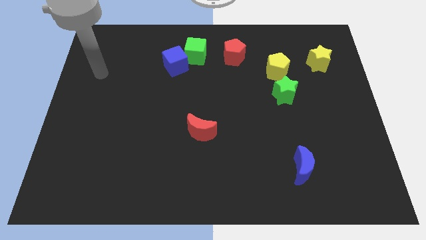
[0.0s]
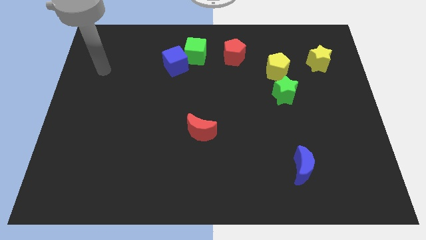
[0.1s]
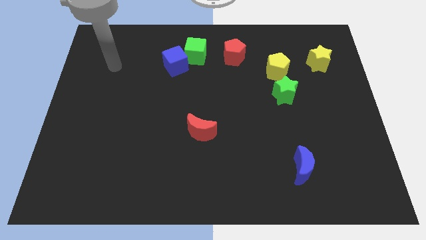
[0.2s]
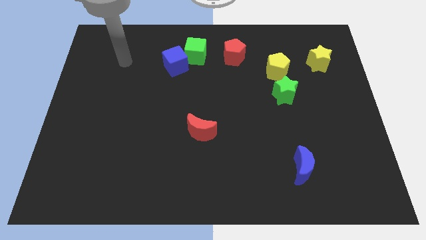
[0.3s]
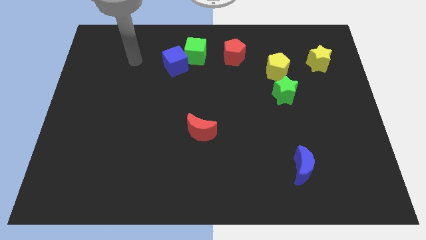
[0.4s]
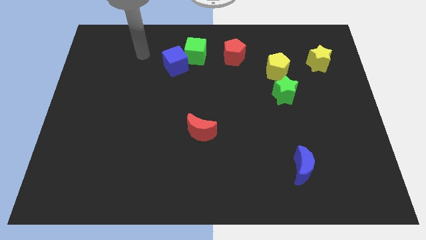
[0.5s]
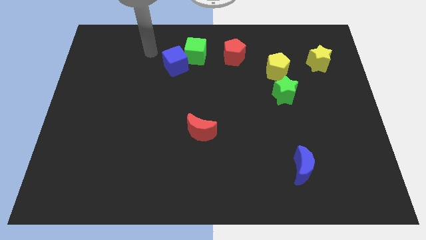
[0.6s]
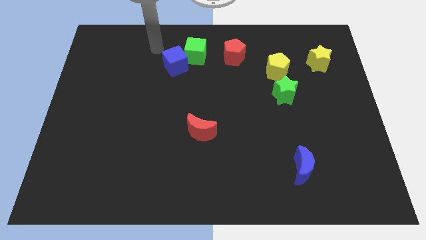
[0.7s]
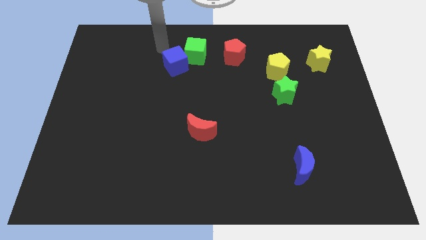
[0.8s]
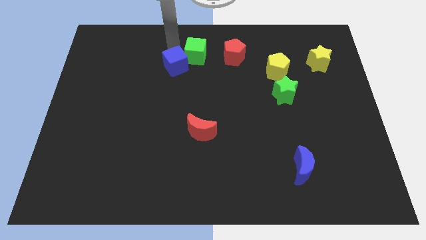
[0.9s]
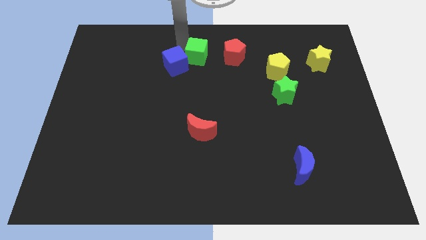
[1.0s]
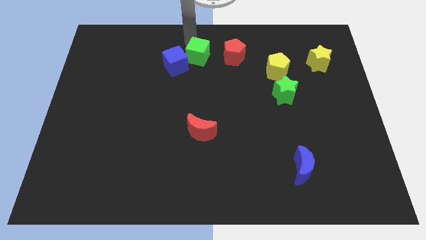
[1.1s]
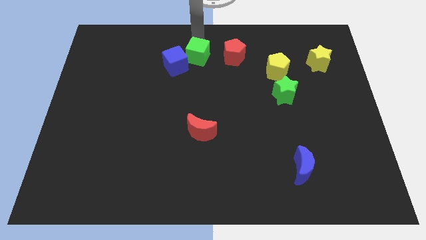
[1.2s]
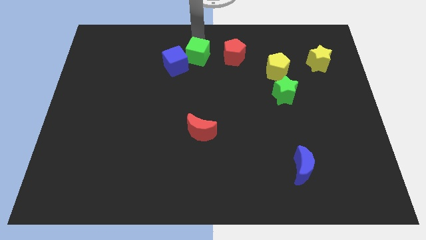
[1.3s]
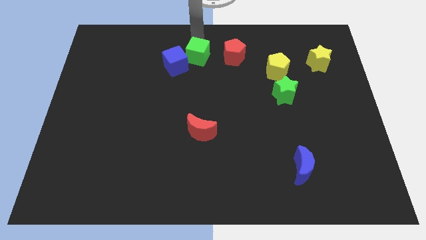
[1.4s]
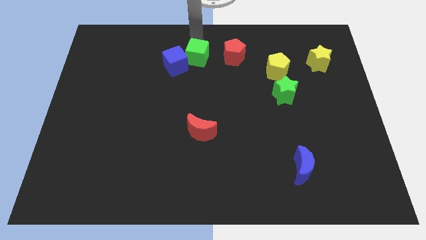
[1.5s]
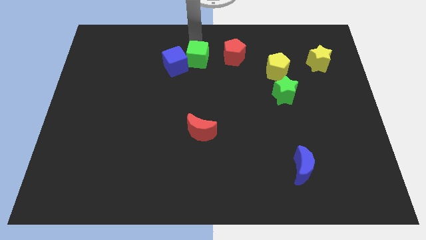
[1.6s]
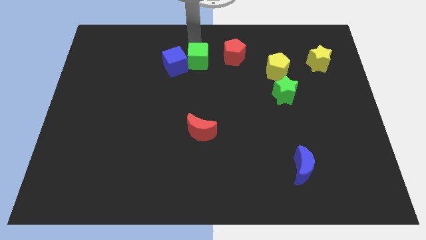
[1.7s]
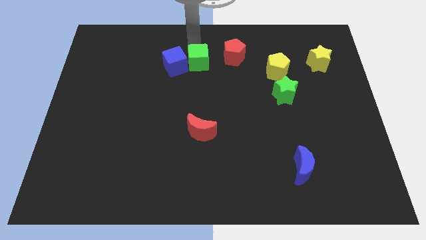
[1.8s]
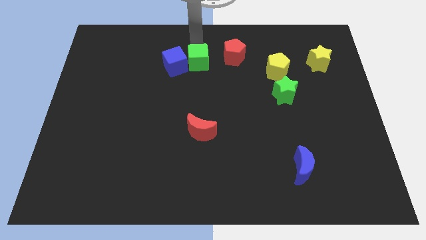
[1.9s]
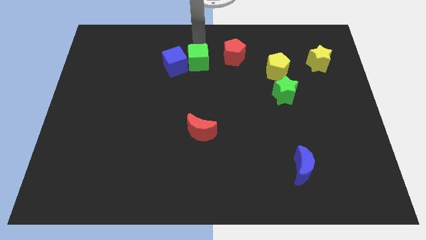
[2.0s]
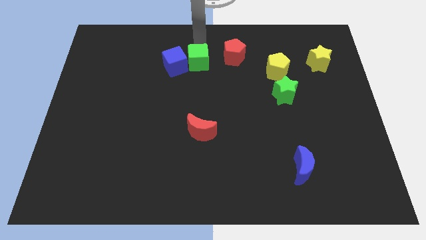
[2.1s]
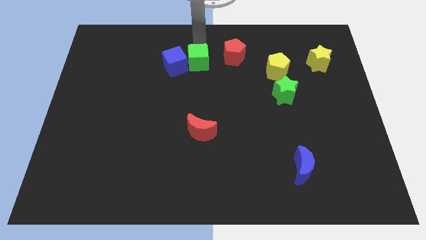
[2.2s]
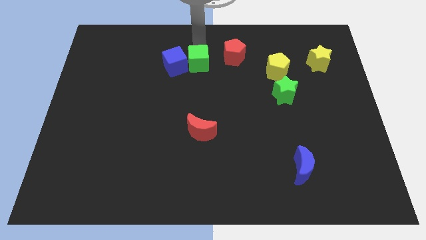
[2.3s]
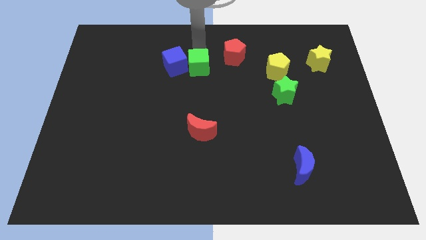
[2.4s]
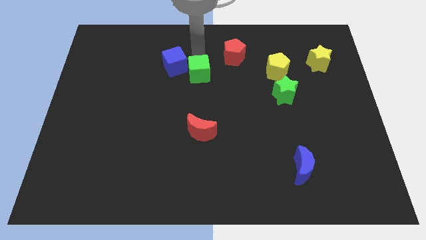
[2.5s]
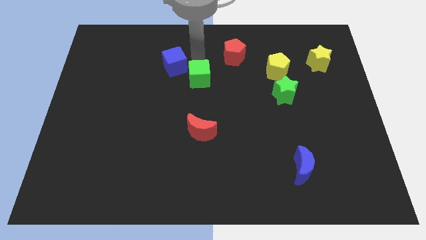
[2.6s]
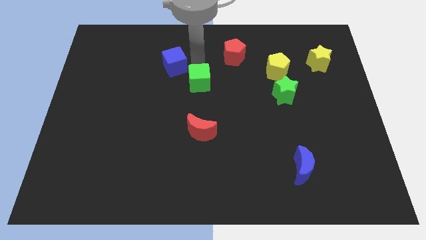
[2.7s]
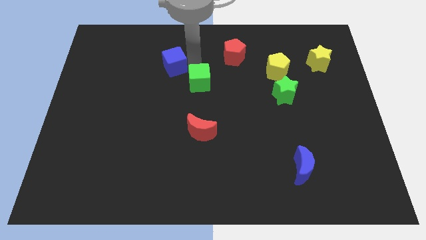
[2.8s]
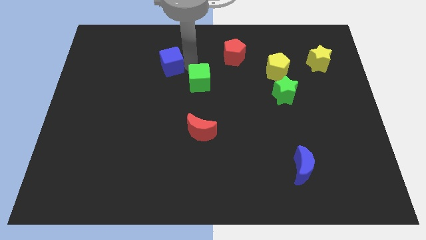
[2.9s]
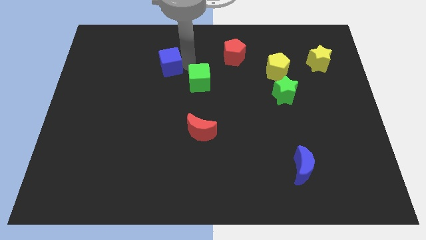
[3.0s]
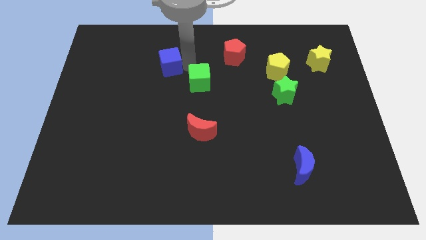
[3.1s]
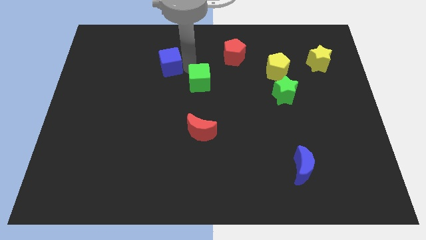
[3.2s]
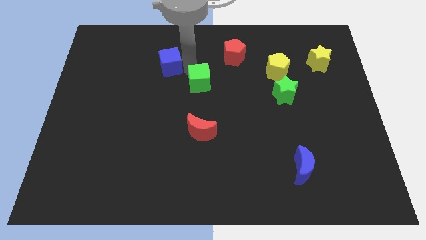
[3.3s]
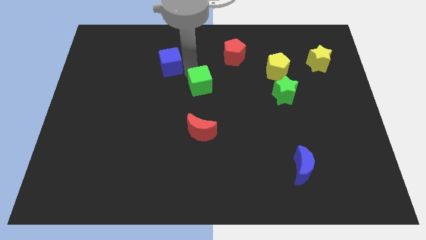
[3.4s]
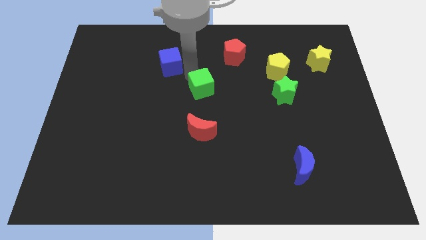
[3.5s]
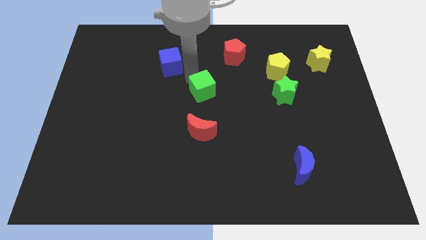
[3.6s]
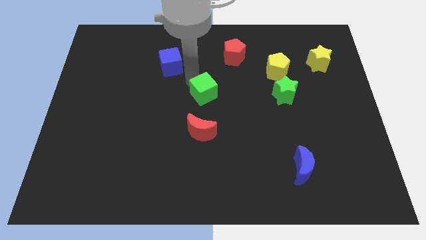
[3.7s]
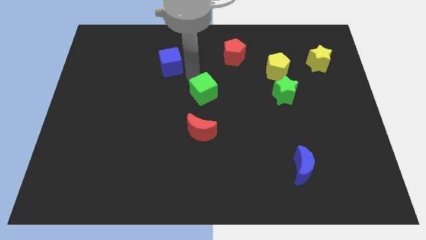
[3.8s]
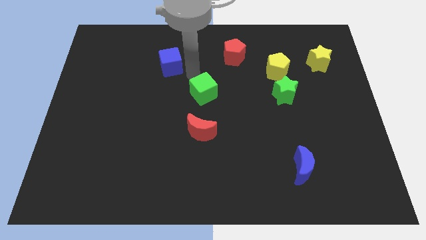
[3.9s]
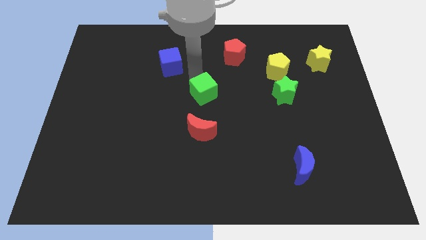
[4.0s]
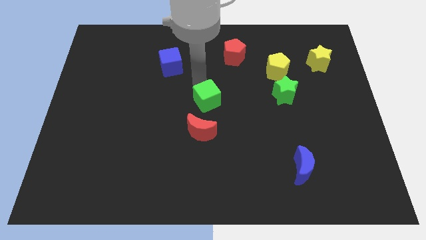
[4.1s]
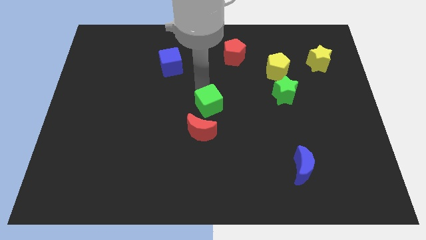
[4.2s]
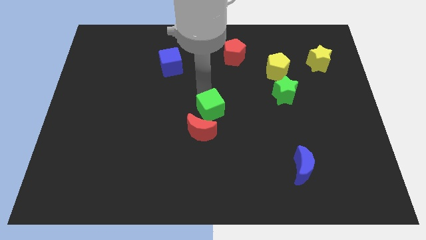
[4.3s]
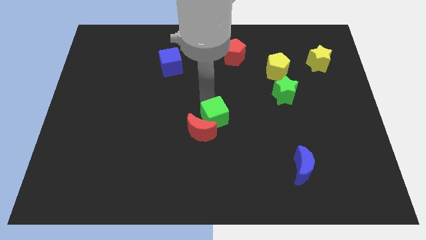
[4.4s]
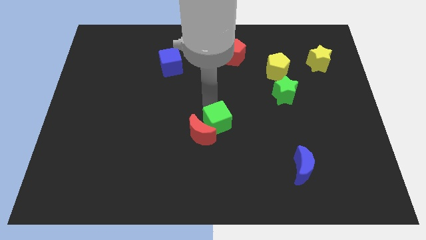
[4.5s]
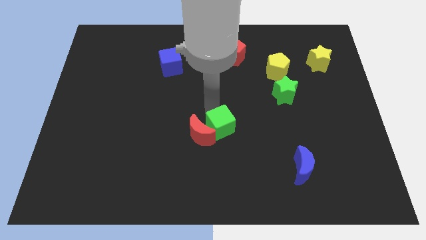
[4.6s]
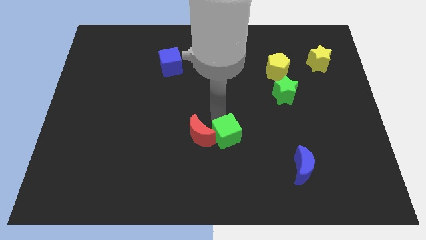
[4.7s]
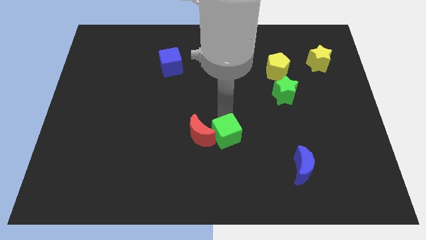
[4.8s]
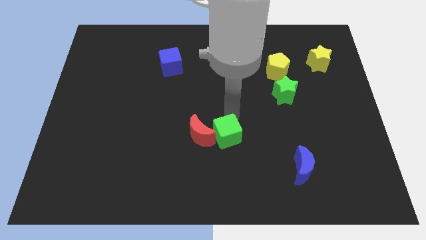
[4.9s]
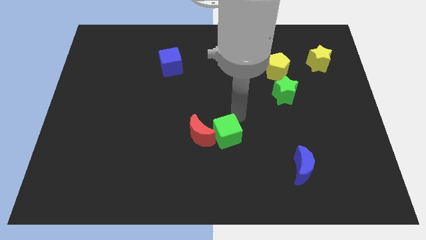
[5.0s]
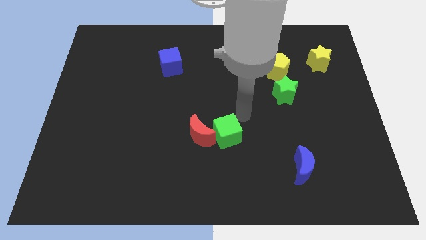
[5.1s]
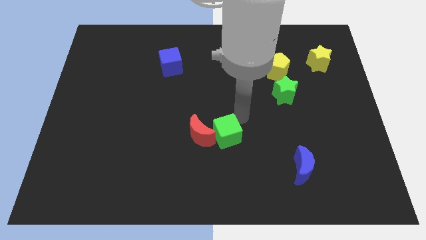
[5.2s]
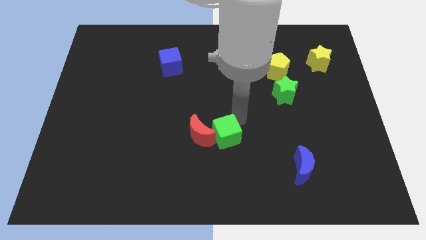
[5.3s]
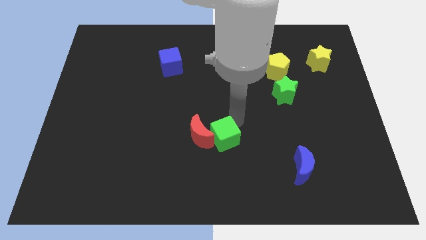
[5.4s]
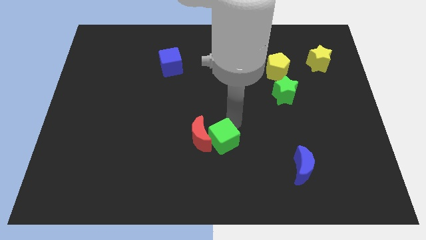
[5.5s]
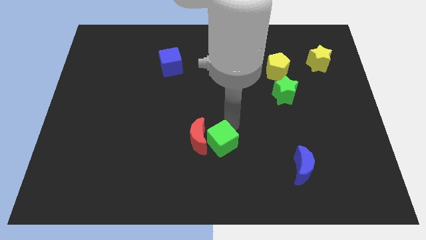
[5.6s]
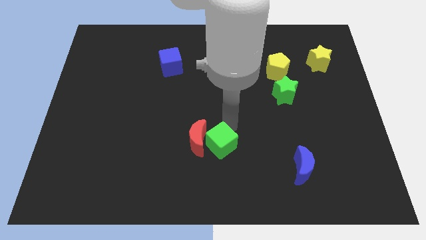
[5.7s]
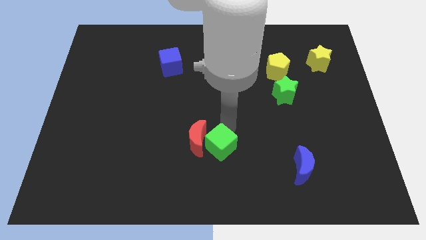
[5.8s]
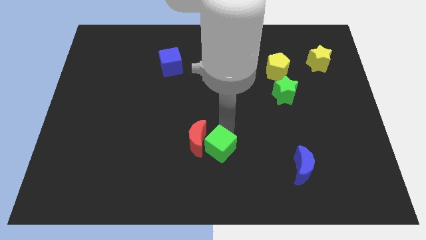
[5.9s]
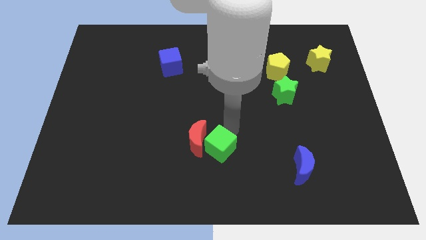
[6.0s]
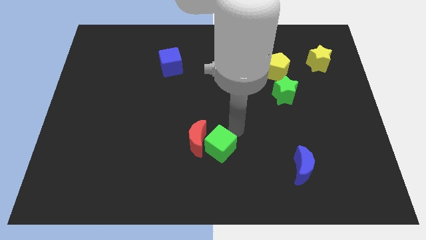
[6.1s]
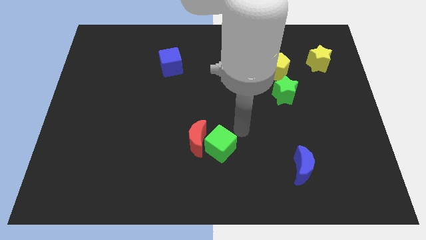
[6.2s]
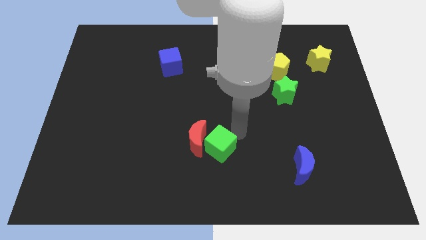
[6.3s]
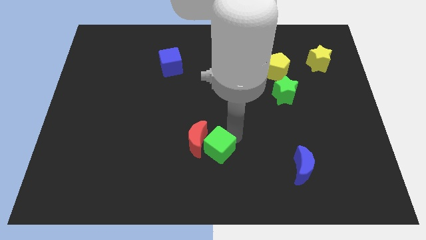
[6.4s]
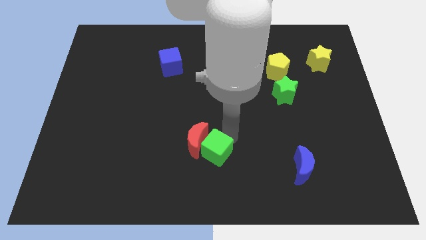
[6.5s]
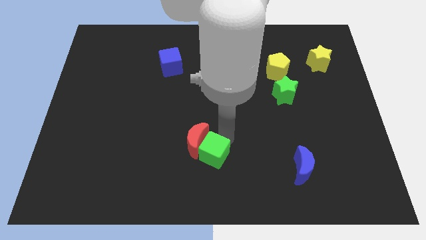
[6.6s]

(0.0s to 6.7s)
put the green cube to the bottom
